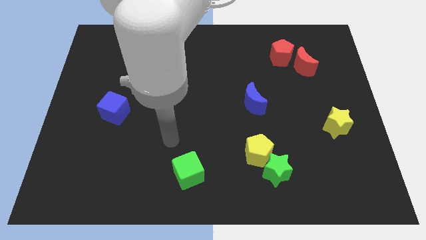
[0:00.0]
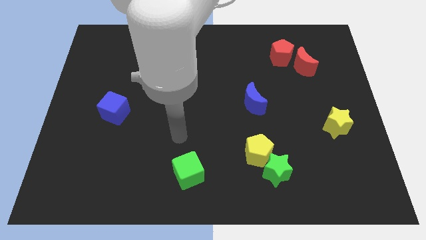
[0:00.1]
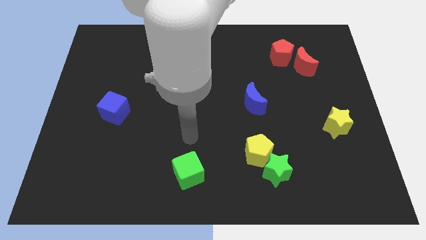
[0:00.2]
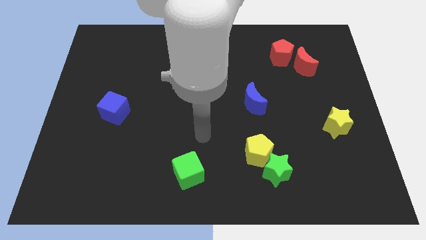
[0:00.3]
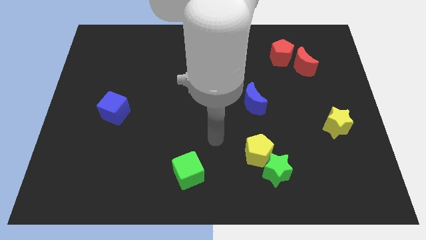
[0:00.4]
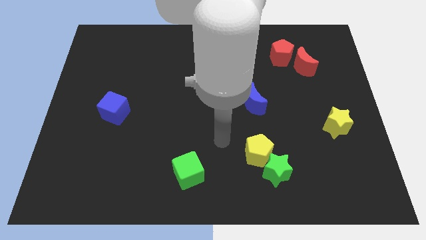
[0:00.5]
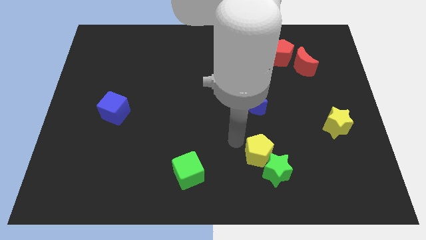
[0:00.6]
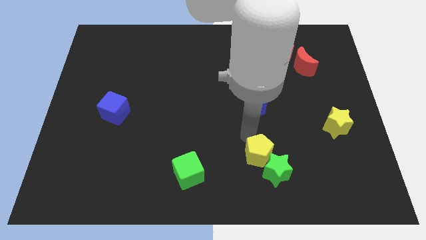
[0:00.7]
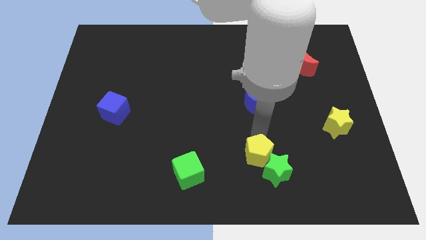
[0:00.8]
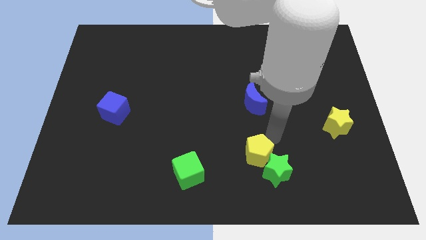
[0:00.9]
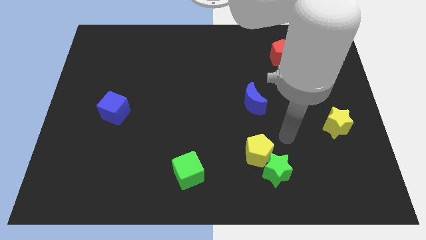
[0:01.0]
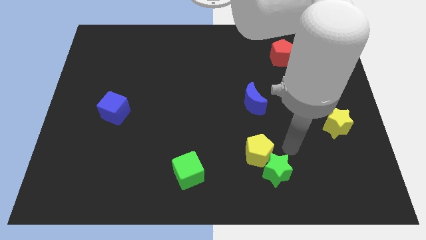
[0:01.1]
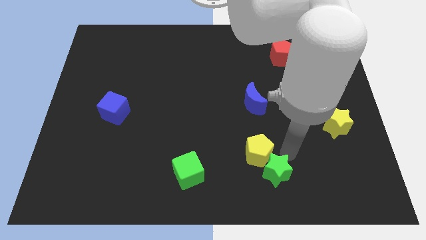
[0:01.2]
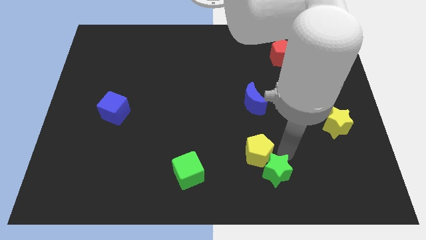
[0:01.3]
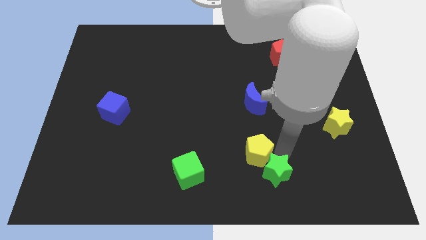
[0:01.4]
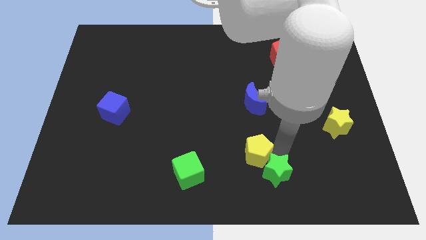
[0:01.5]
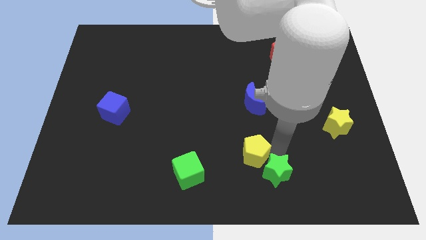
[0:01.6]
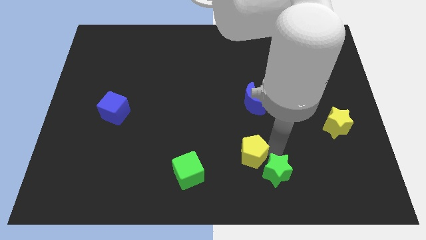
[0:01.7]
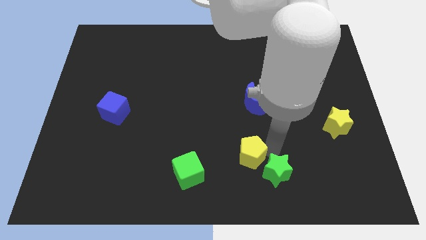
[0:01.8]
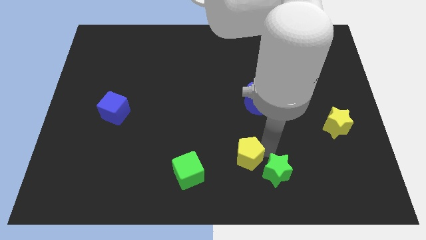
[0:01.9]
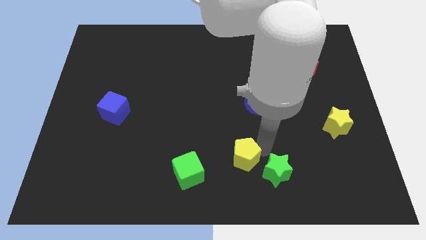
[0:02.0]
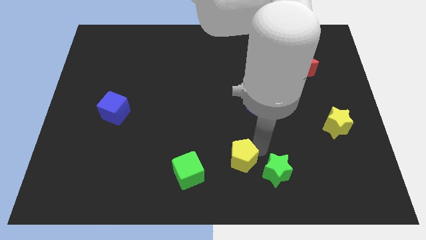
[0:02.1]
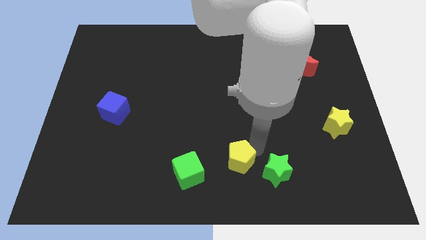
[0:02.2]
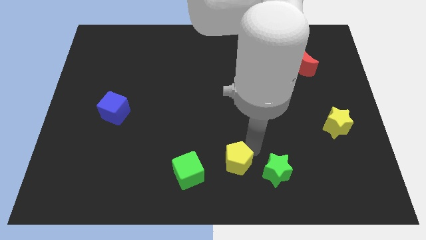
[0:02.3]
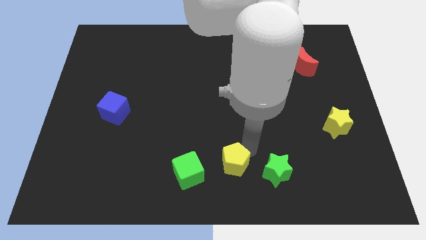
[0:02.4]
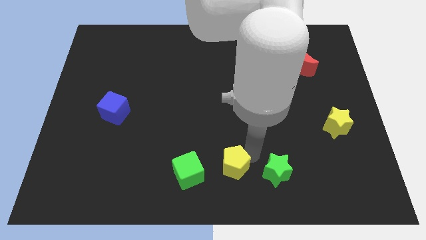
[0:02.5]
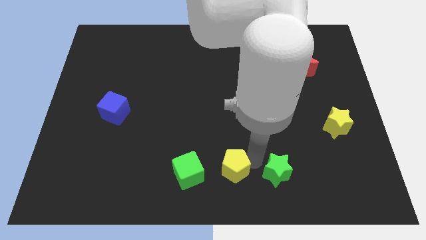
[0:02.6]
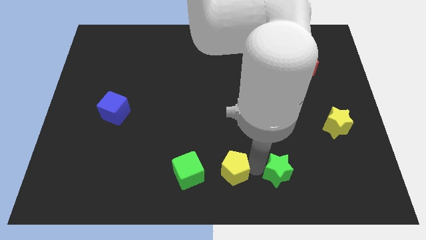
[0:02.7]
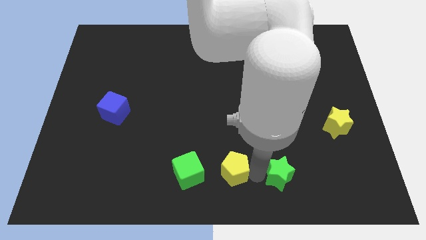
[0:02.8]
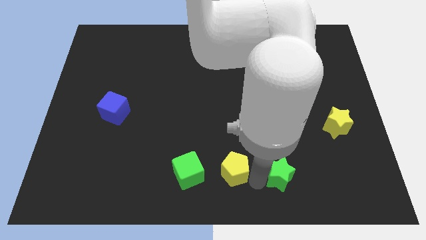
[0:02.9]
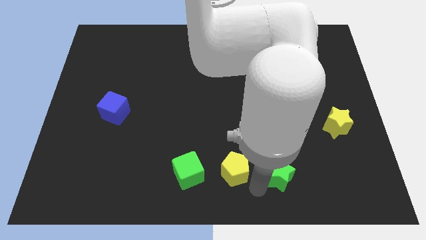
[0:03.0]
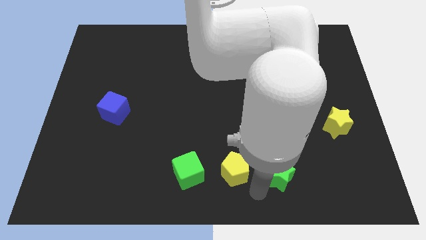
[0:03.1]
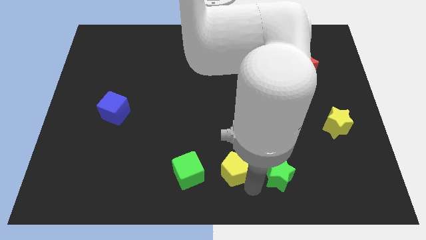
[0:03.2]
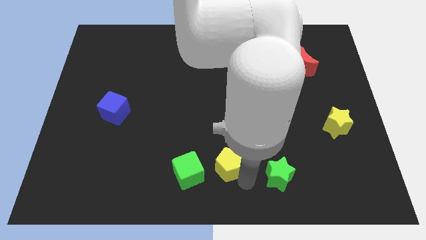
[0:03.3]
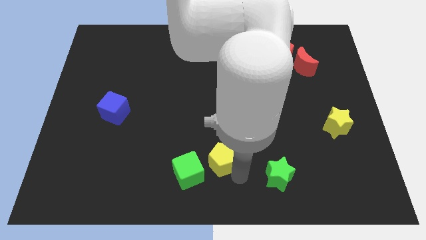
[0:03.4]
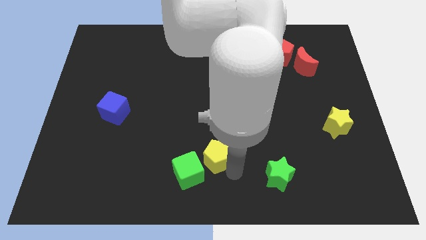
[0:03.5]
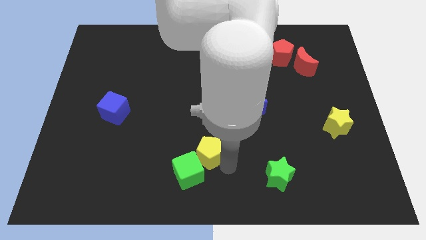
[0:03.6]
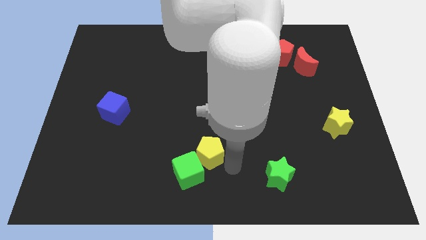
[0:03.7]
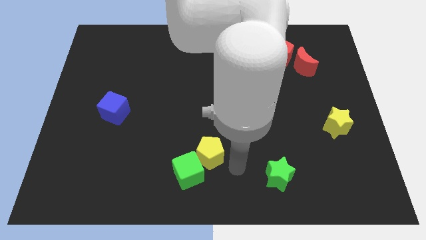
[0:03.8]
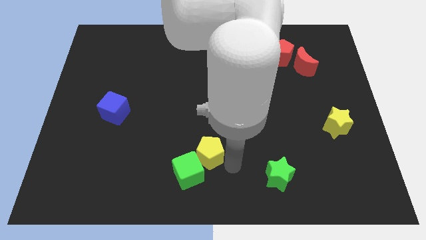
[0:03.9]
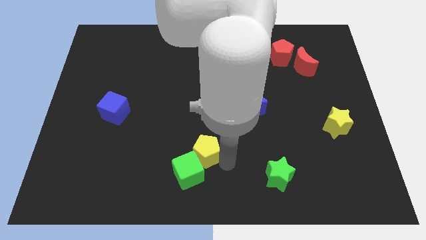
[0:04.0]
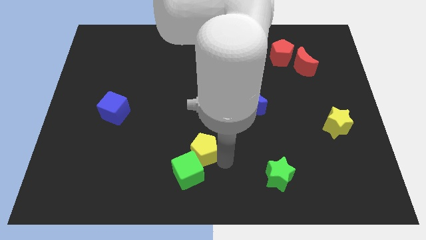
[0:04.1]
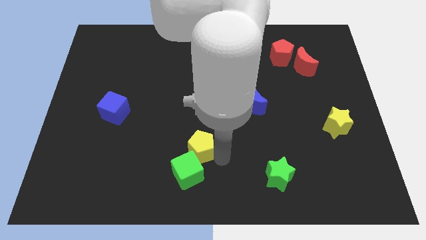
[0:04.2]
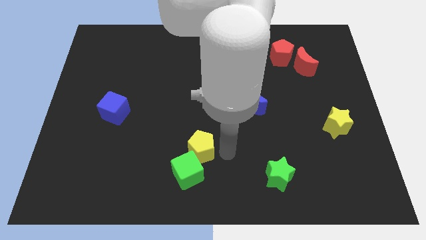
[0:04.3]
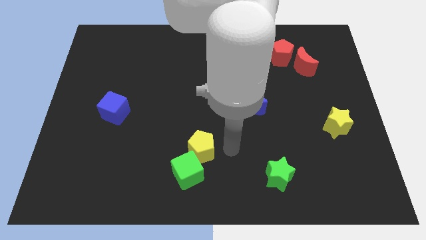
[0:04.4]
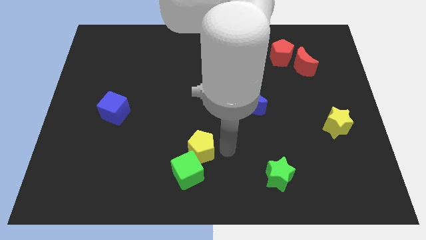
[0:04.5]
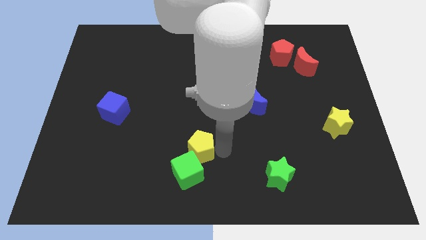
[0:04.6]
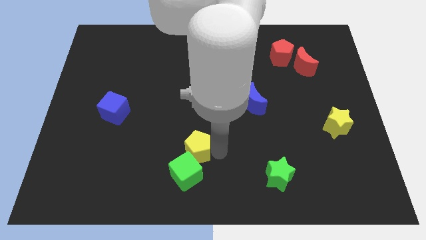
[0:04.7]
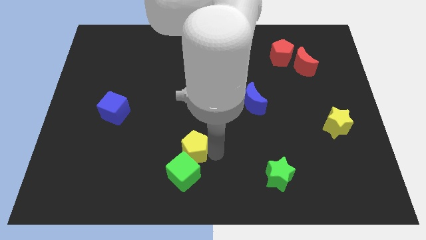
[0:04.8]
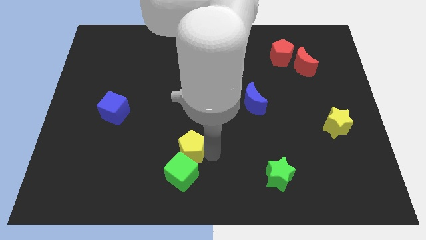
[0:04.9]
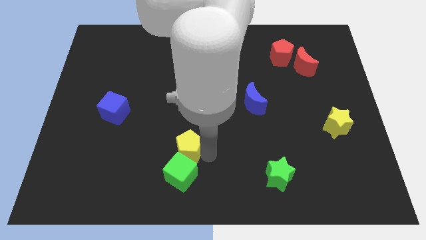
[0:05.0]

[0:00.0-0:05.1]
slide the yellow pentagon diagonally up and to the left of the green cube
